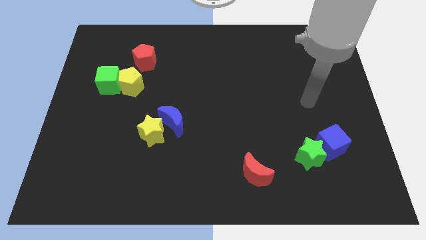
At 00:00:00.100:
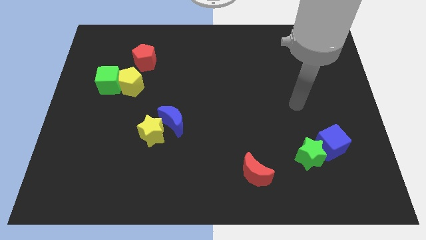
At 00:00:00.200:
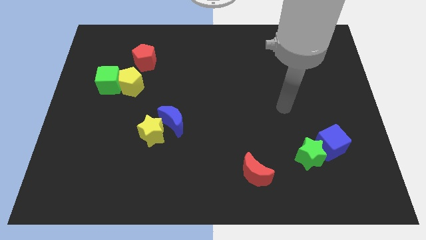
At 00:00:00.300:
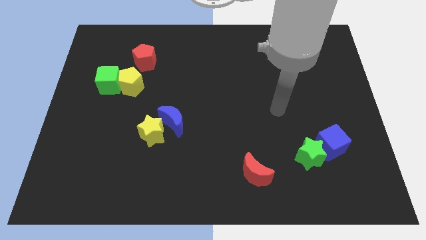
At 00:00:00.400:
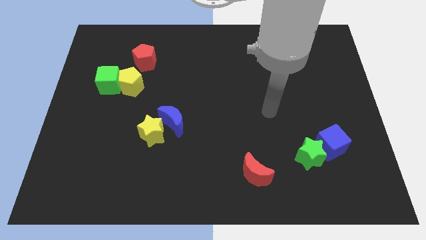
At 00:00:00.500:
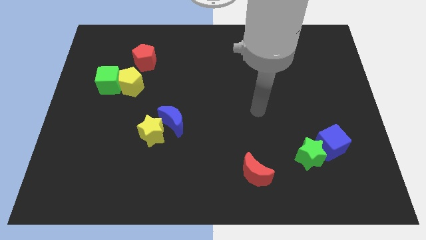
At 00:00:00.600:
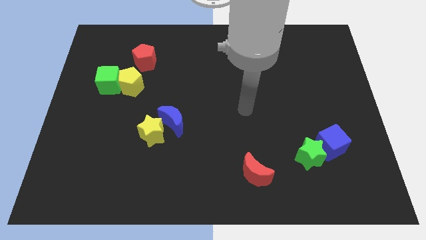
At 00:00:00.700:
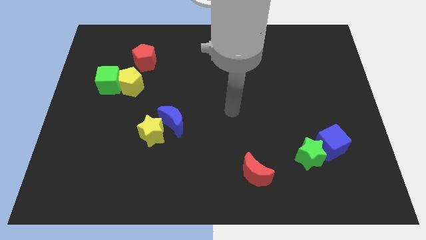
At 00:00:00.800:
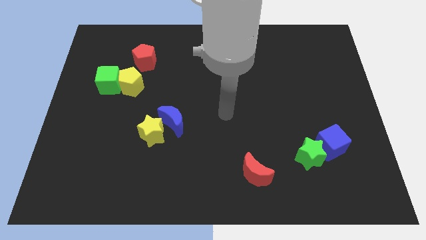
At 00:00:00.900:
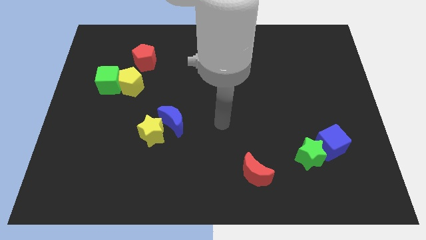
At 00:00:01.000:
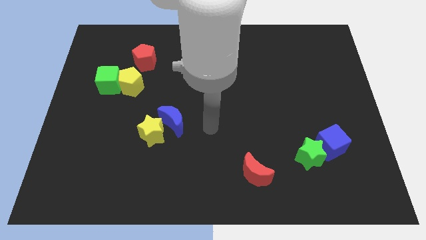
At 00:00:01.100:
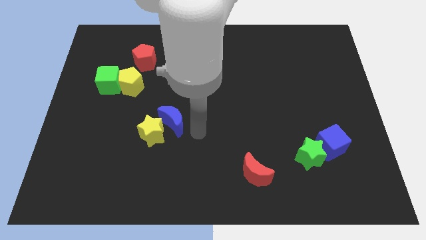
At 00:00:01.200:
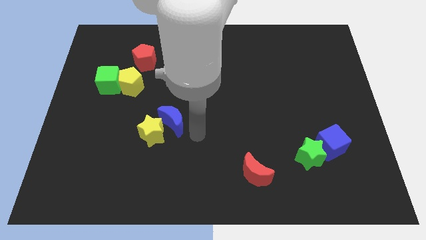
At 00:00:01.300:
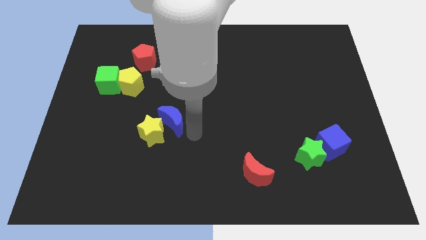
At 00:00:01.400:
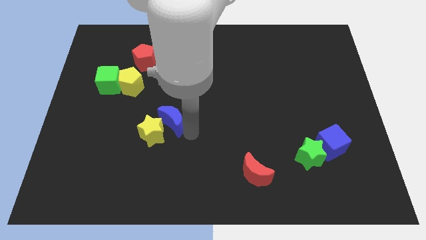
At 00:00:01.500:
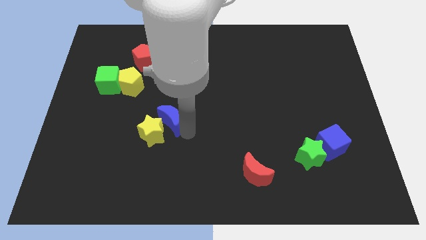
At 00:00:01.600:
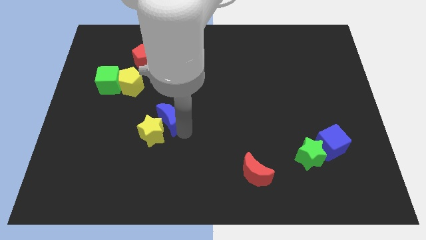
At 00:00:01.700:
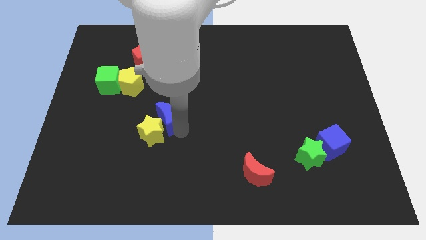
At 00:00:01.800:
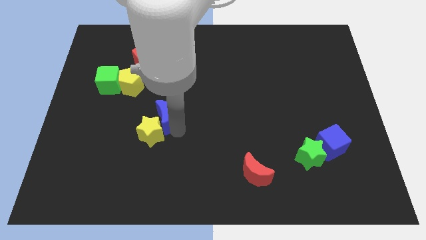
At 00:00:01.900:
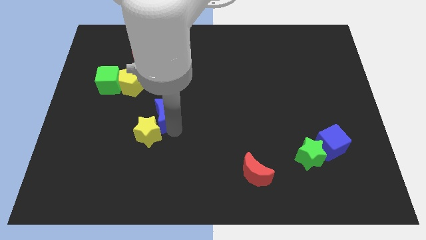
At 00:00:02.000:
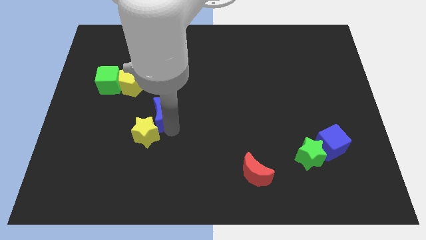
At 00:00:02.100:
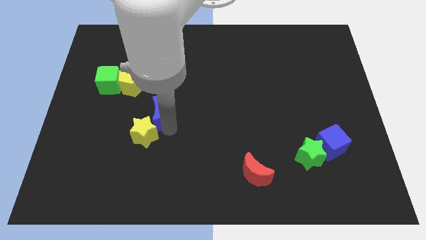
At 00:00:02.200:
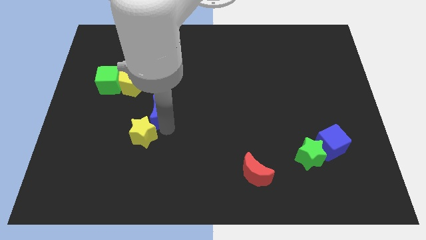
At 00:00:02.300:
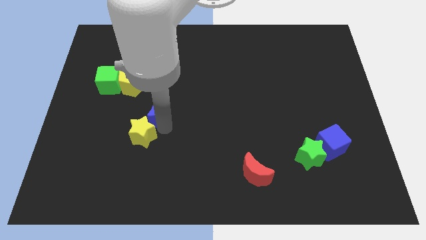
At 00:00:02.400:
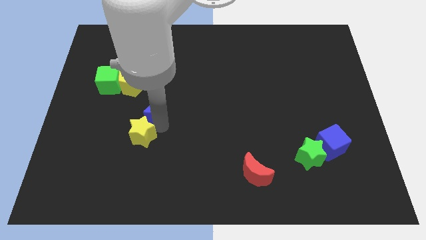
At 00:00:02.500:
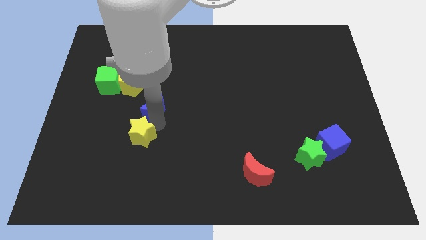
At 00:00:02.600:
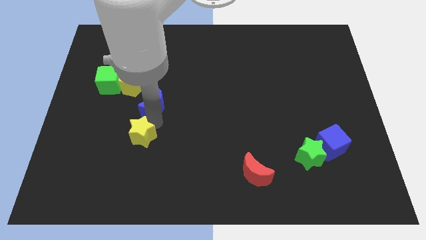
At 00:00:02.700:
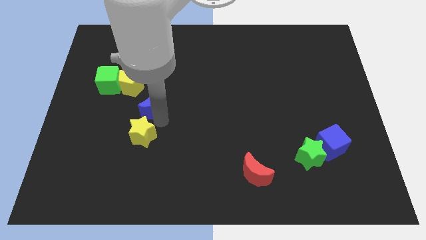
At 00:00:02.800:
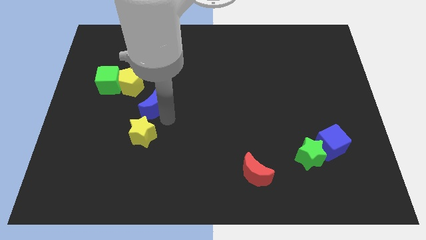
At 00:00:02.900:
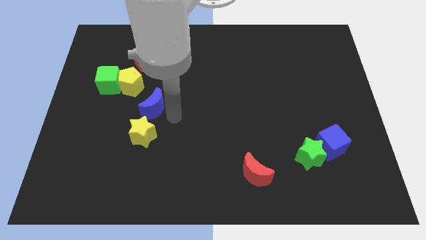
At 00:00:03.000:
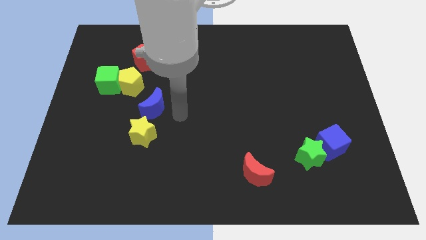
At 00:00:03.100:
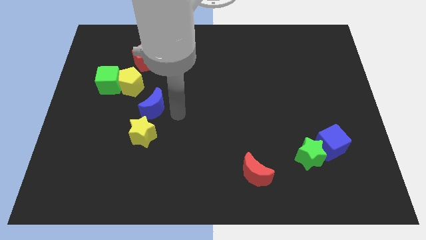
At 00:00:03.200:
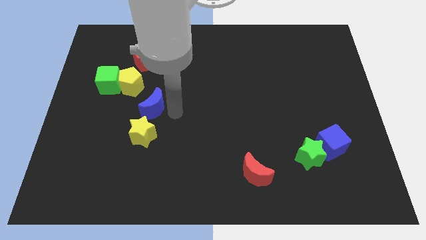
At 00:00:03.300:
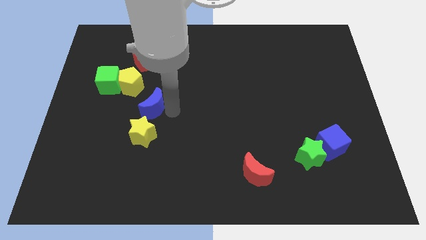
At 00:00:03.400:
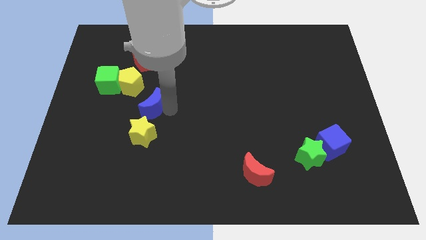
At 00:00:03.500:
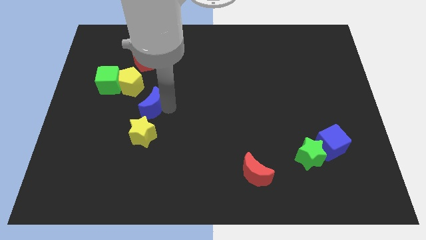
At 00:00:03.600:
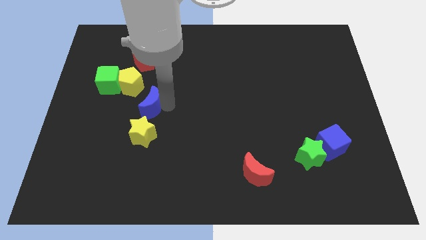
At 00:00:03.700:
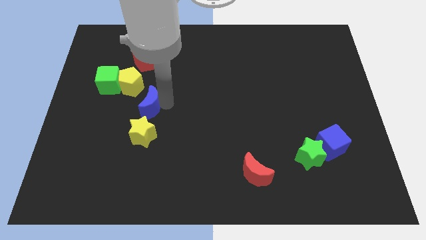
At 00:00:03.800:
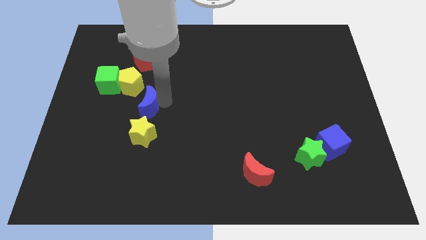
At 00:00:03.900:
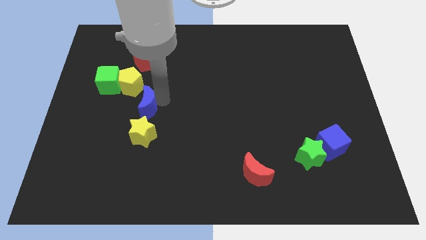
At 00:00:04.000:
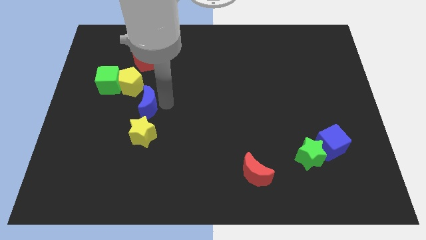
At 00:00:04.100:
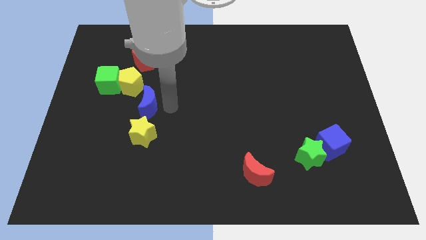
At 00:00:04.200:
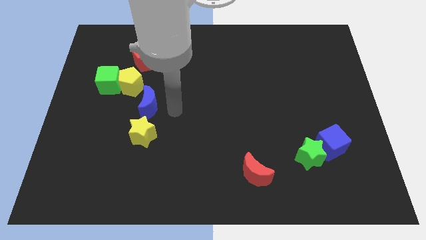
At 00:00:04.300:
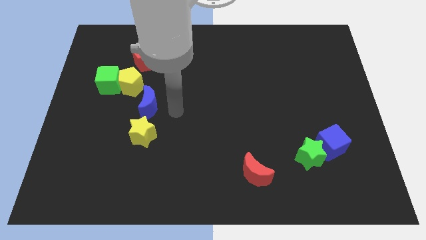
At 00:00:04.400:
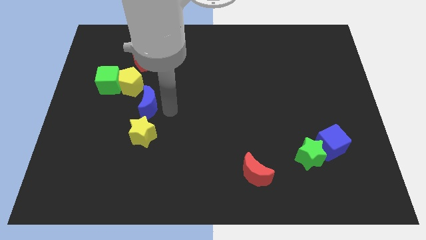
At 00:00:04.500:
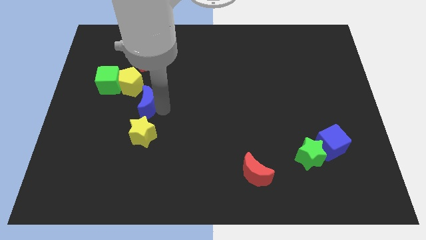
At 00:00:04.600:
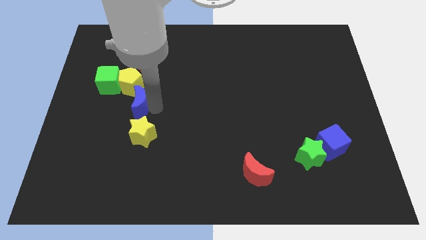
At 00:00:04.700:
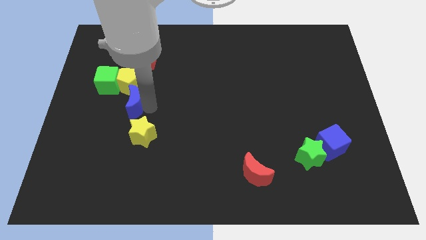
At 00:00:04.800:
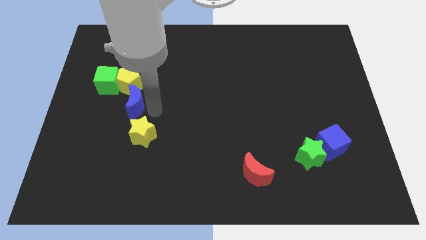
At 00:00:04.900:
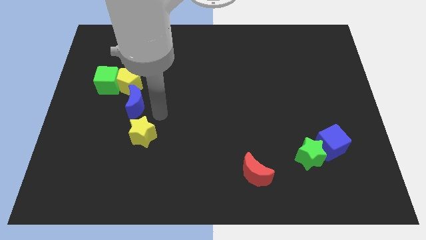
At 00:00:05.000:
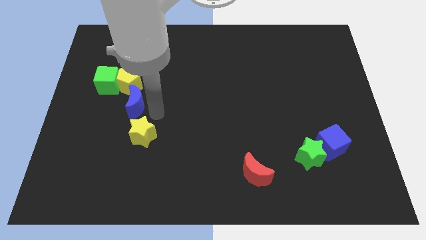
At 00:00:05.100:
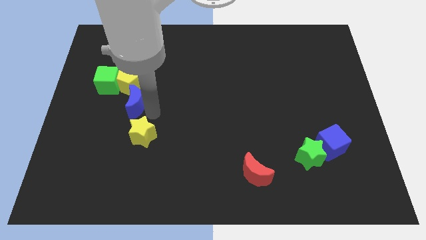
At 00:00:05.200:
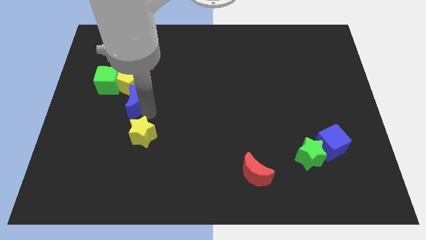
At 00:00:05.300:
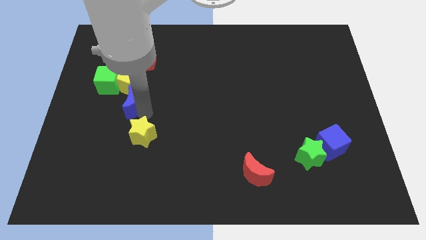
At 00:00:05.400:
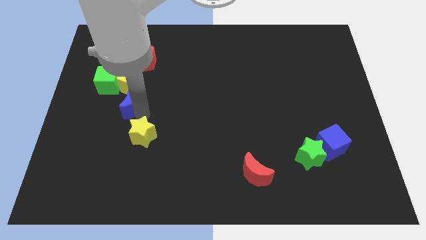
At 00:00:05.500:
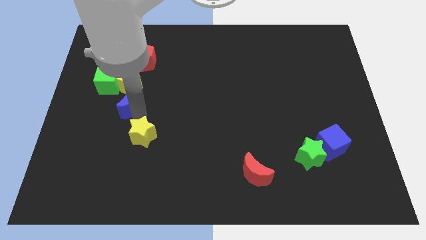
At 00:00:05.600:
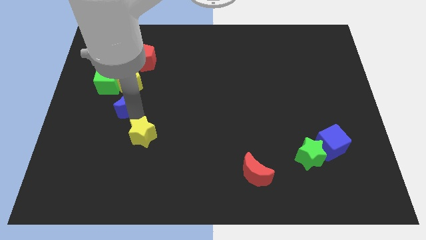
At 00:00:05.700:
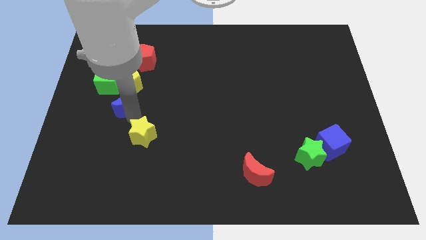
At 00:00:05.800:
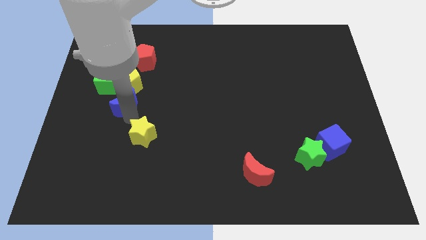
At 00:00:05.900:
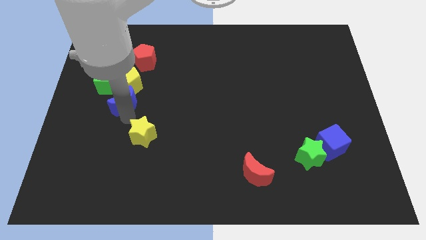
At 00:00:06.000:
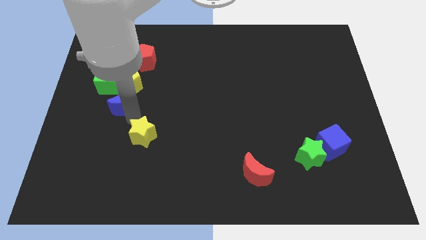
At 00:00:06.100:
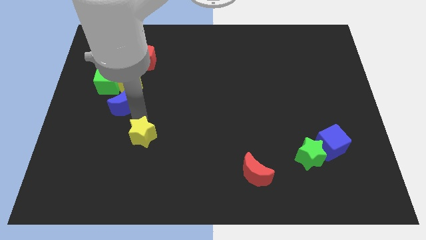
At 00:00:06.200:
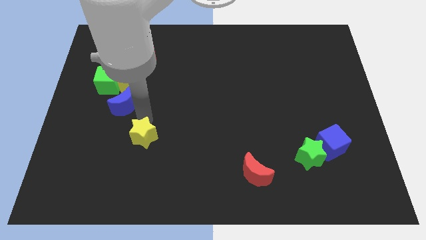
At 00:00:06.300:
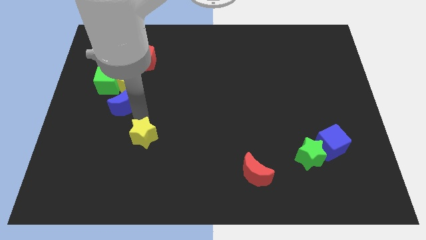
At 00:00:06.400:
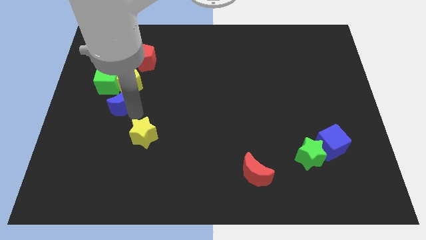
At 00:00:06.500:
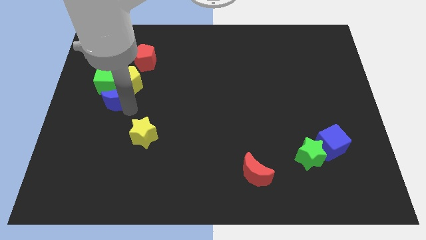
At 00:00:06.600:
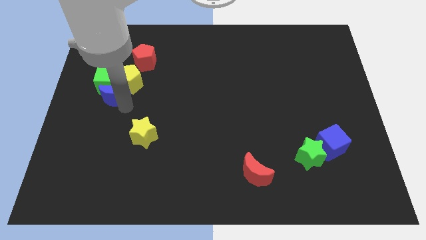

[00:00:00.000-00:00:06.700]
move the blue moon next to the green cube
